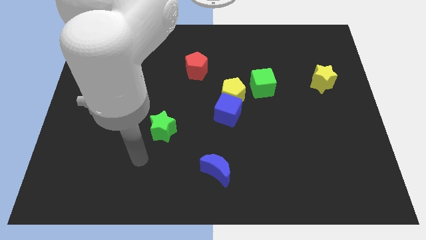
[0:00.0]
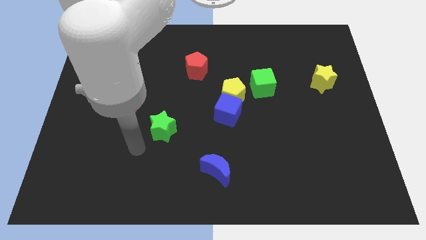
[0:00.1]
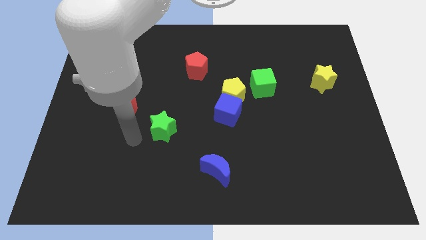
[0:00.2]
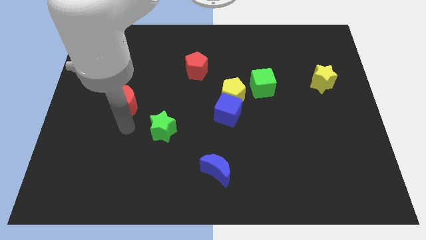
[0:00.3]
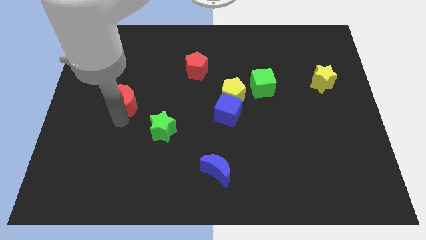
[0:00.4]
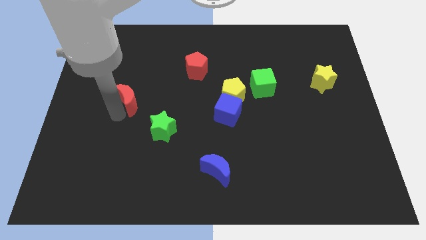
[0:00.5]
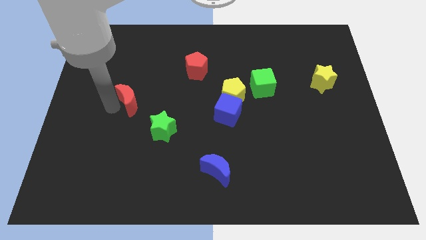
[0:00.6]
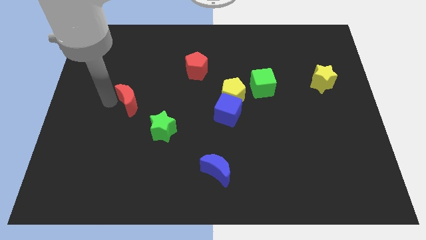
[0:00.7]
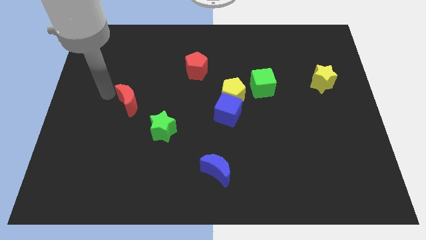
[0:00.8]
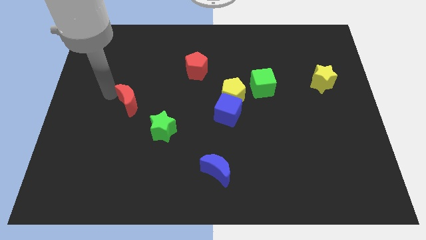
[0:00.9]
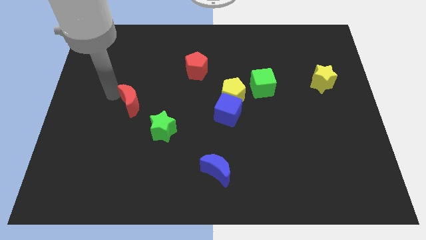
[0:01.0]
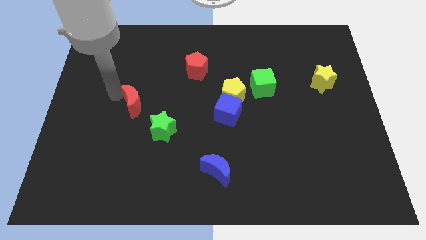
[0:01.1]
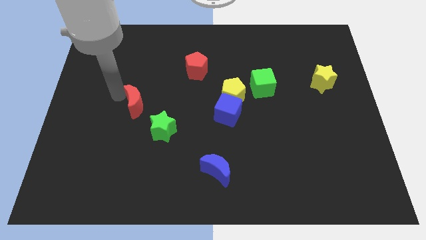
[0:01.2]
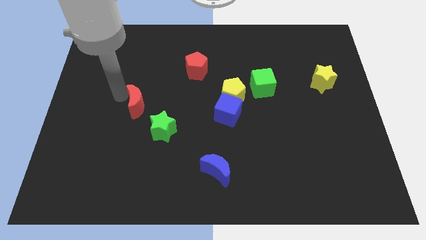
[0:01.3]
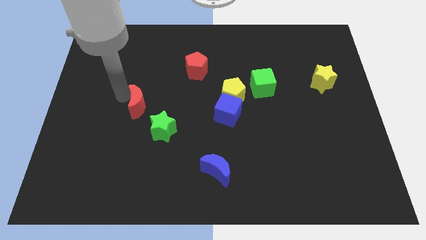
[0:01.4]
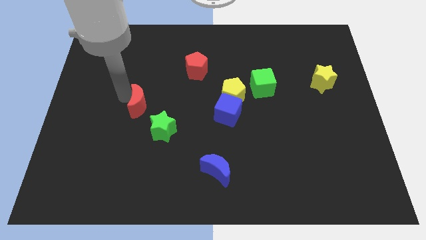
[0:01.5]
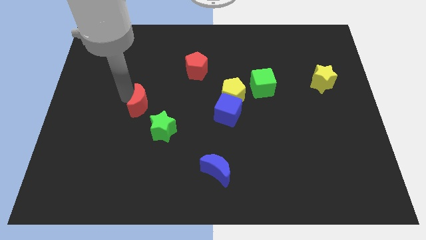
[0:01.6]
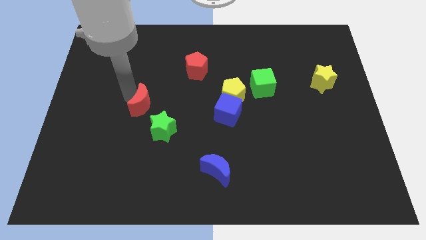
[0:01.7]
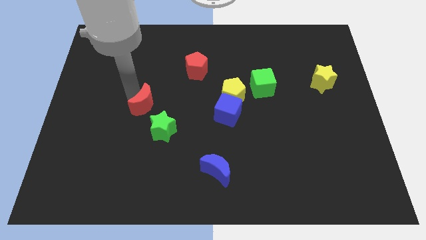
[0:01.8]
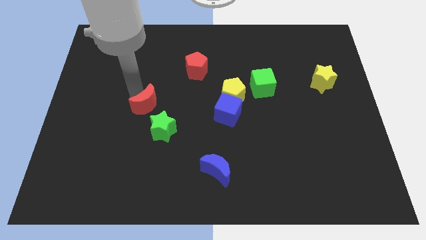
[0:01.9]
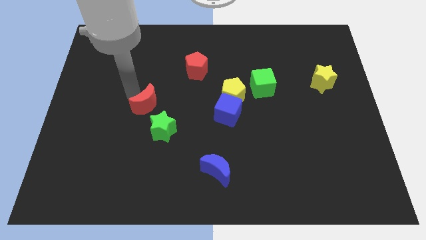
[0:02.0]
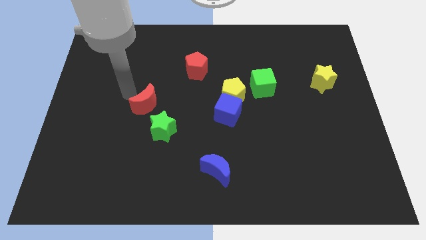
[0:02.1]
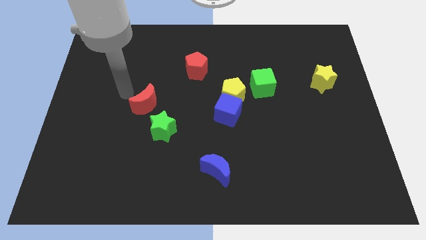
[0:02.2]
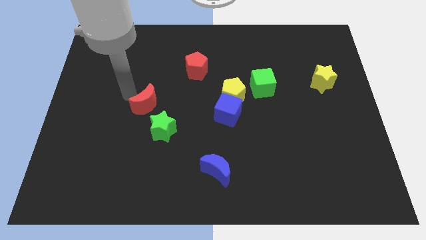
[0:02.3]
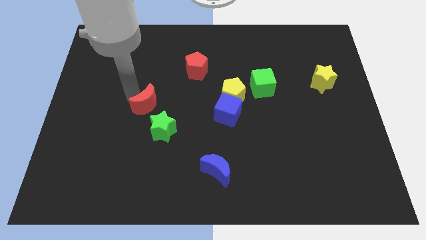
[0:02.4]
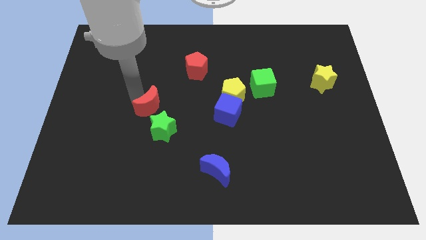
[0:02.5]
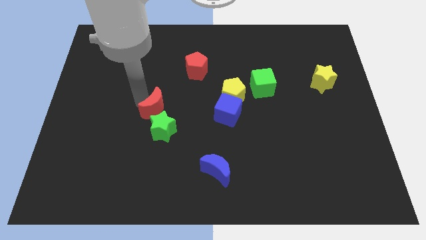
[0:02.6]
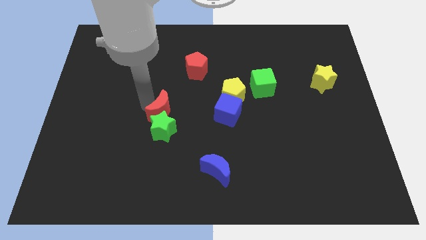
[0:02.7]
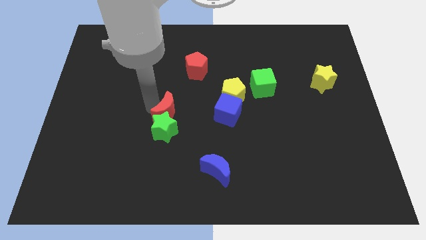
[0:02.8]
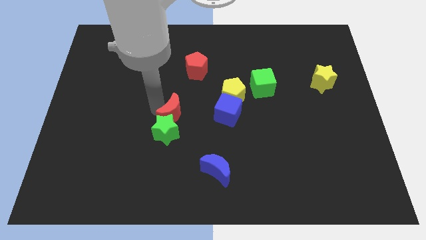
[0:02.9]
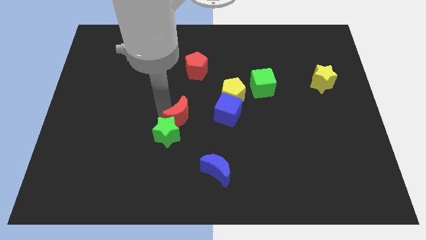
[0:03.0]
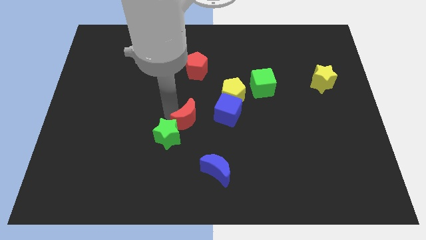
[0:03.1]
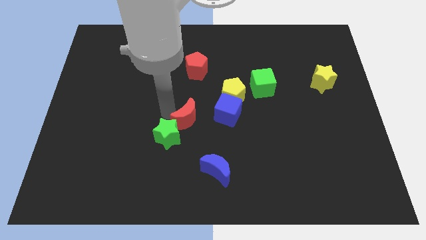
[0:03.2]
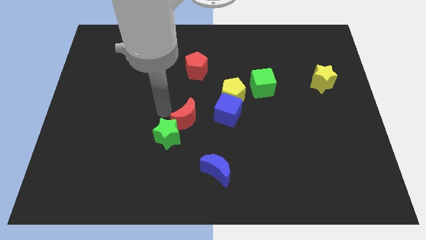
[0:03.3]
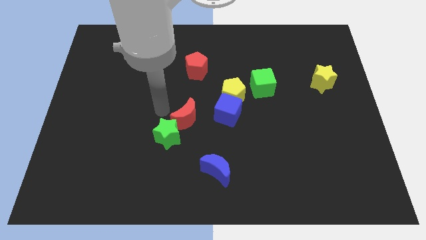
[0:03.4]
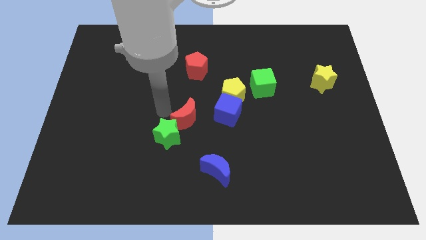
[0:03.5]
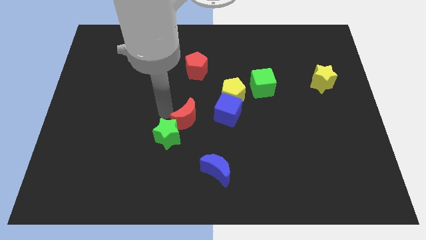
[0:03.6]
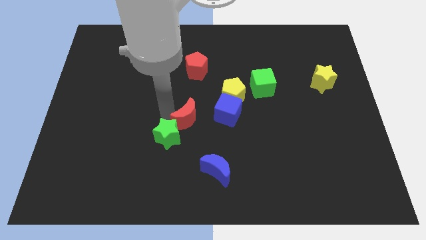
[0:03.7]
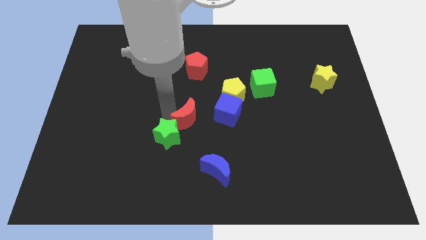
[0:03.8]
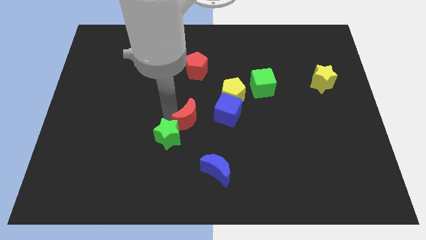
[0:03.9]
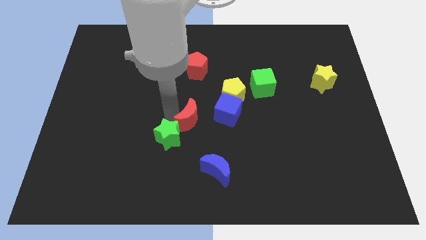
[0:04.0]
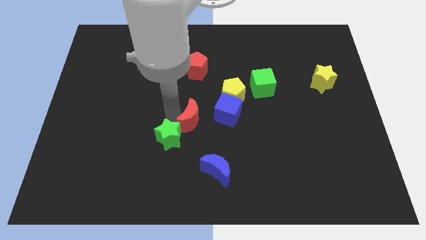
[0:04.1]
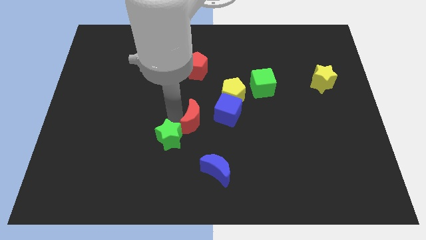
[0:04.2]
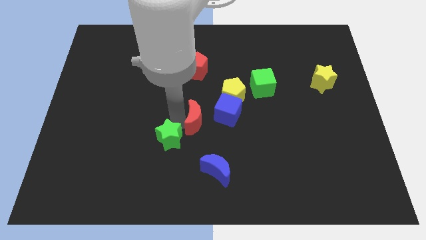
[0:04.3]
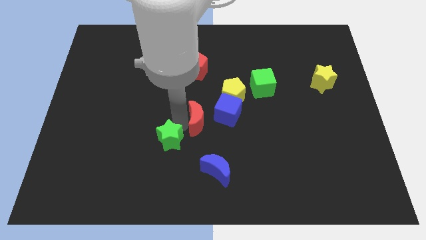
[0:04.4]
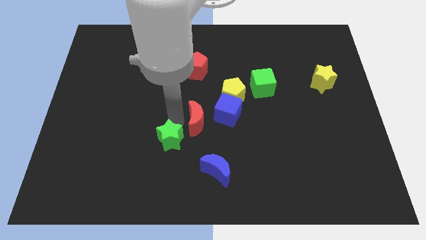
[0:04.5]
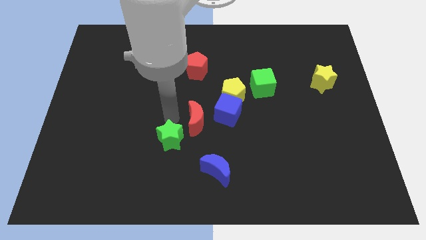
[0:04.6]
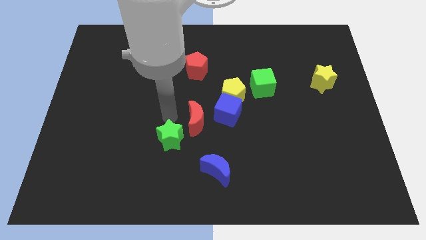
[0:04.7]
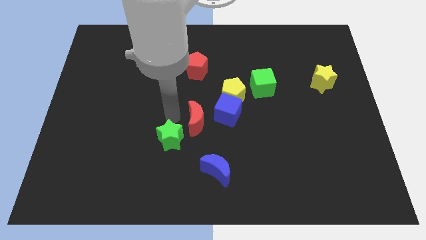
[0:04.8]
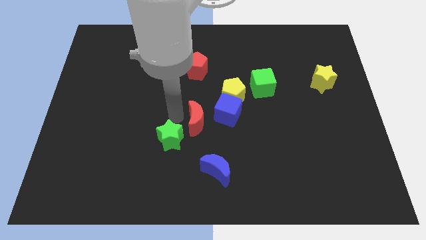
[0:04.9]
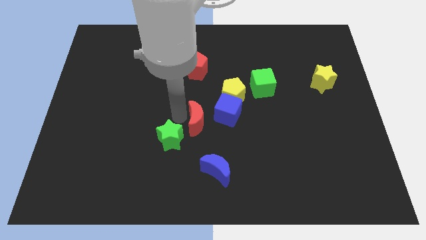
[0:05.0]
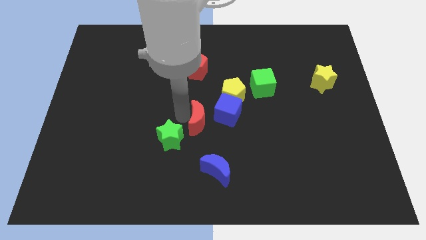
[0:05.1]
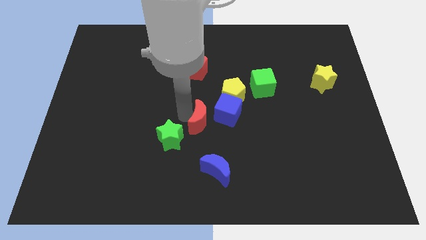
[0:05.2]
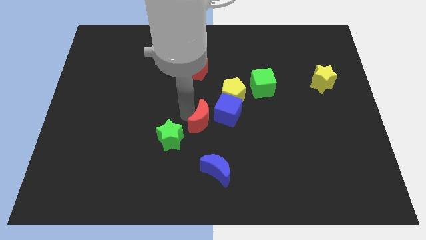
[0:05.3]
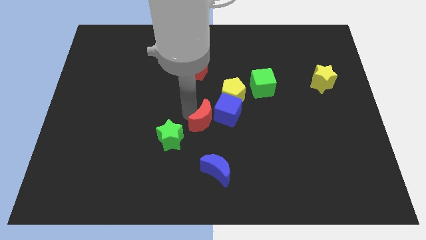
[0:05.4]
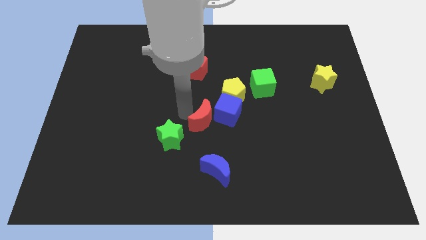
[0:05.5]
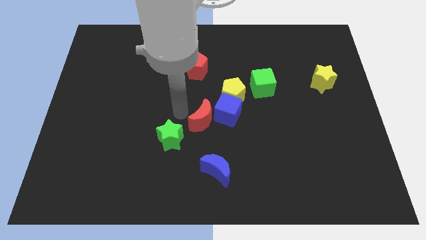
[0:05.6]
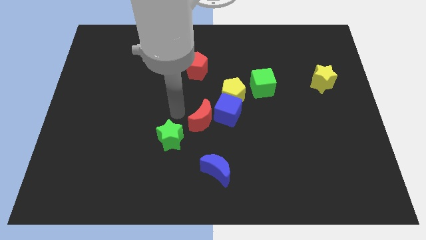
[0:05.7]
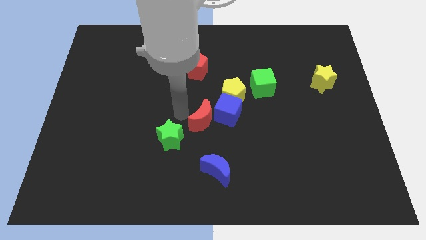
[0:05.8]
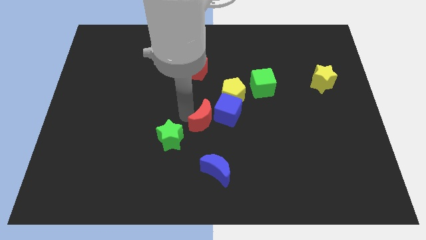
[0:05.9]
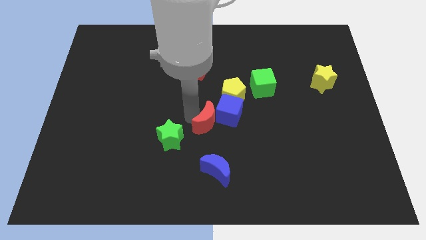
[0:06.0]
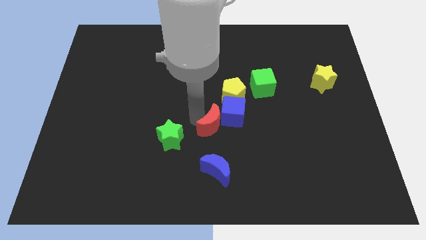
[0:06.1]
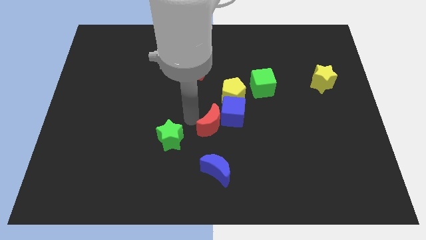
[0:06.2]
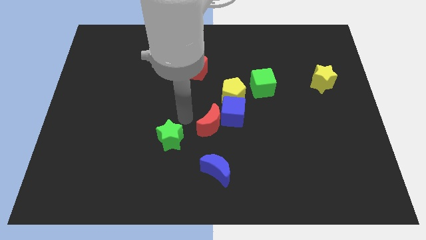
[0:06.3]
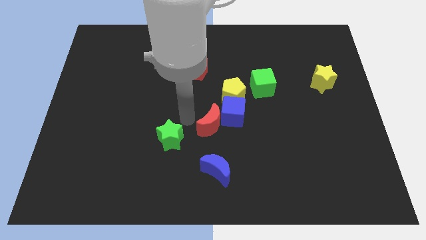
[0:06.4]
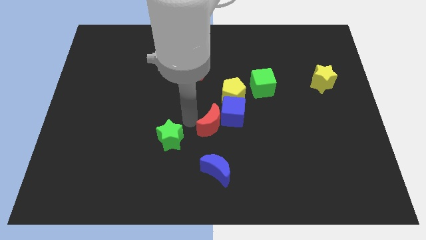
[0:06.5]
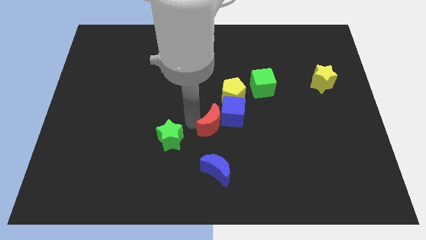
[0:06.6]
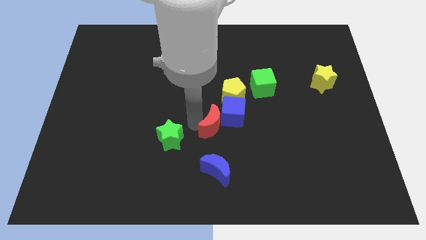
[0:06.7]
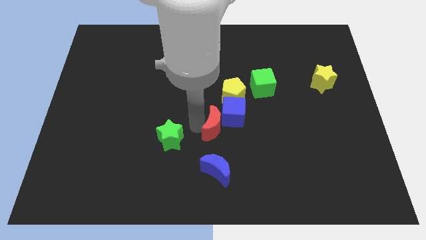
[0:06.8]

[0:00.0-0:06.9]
move the red moon to the bottom of the yellow pentagon
